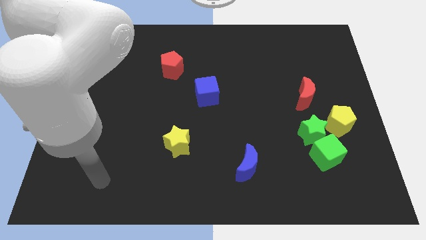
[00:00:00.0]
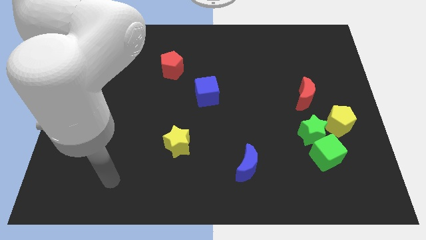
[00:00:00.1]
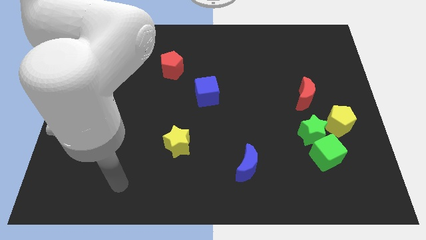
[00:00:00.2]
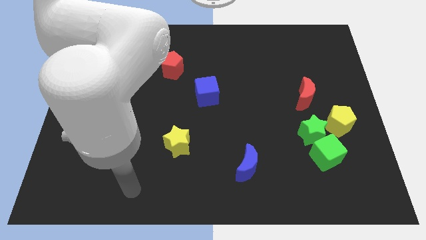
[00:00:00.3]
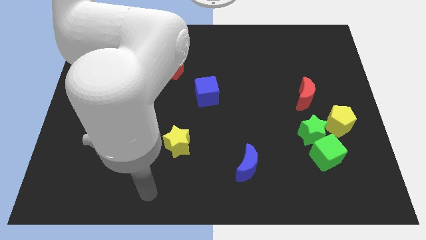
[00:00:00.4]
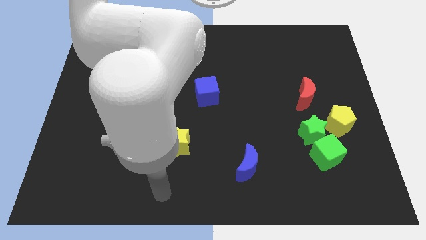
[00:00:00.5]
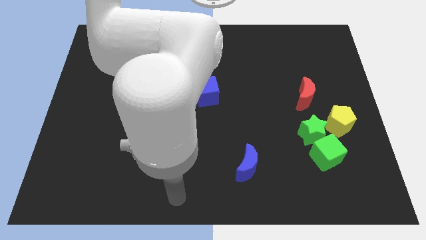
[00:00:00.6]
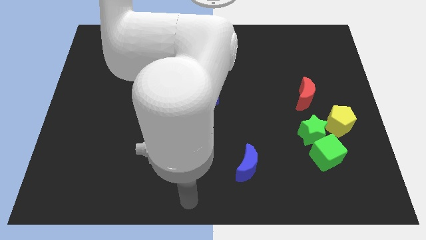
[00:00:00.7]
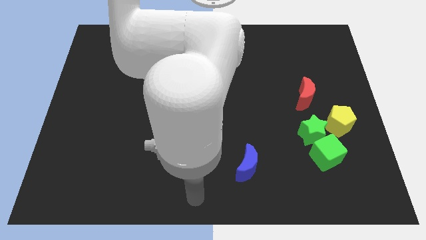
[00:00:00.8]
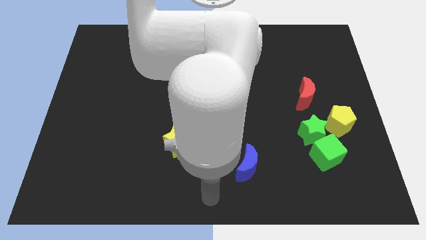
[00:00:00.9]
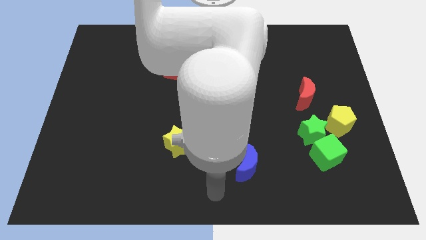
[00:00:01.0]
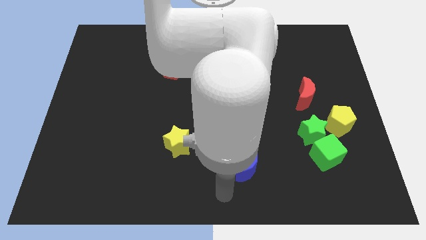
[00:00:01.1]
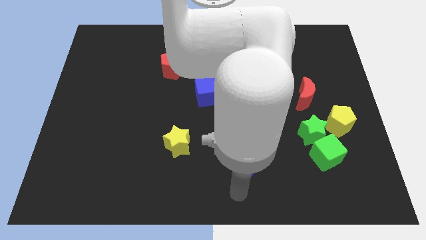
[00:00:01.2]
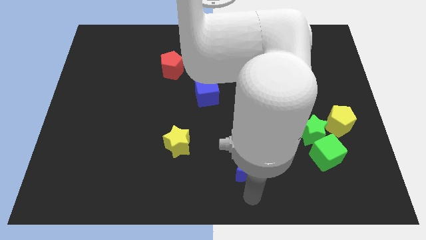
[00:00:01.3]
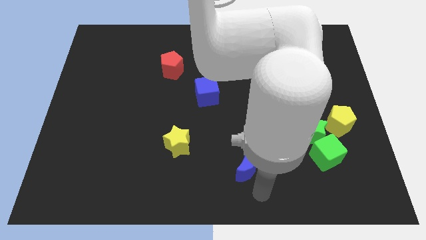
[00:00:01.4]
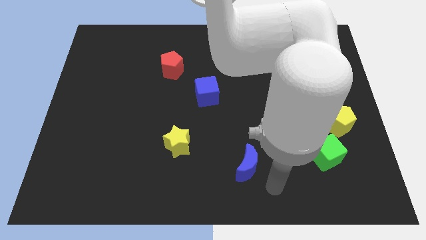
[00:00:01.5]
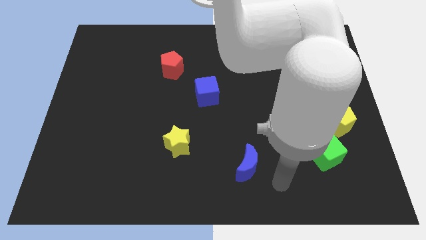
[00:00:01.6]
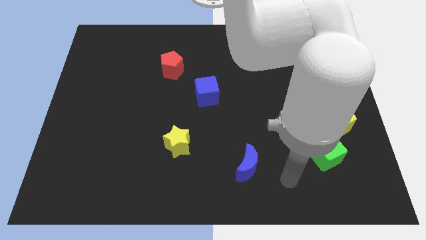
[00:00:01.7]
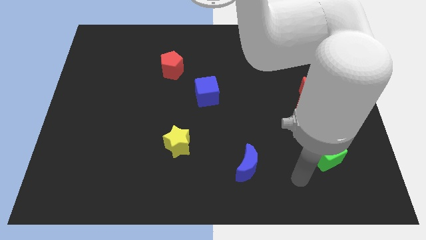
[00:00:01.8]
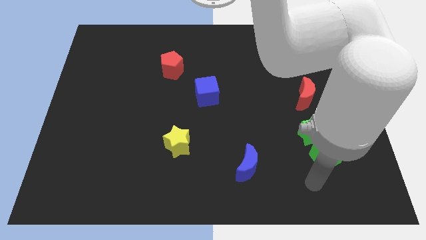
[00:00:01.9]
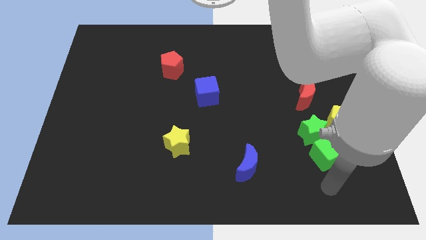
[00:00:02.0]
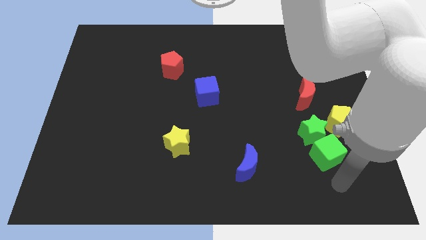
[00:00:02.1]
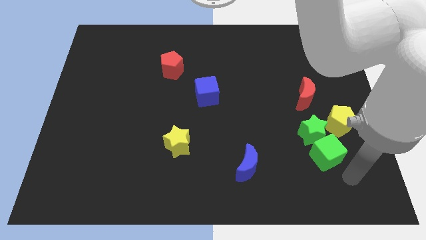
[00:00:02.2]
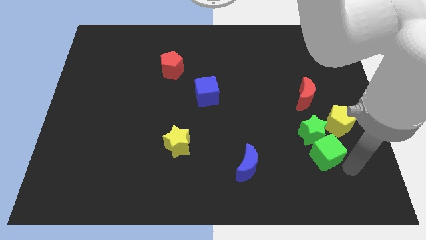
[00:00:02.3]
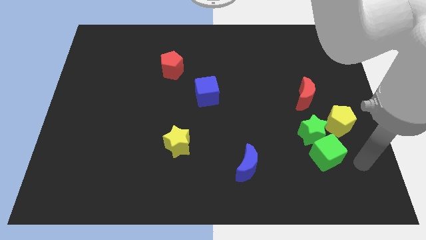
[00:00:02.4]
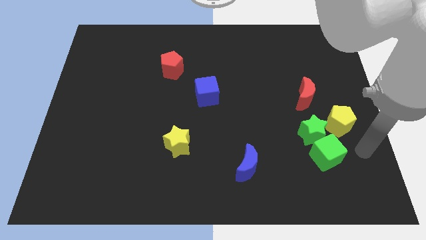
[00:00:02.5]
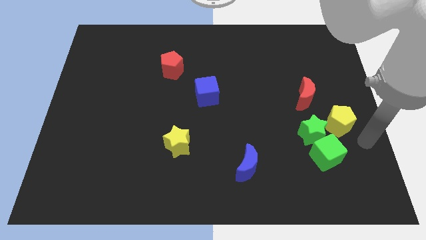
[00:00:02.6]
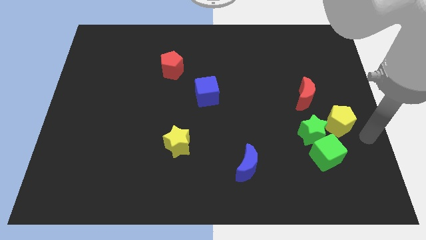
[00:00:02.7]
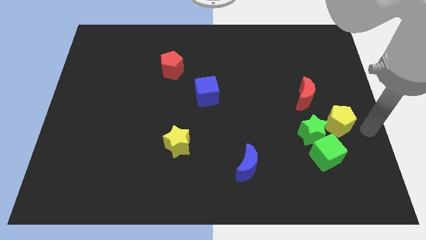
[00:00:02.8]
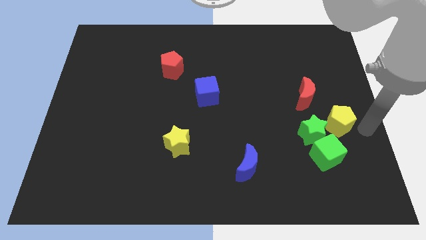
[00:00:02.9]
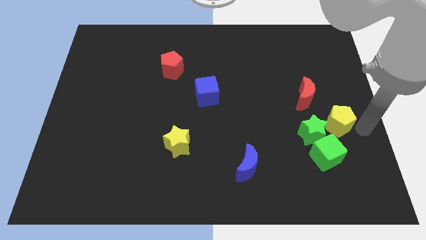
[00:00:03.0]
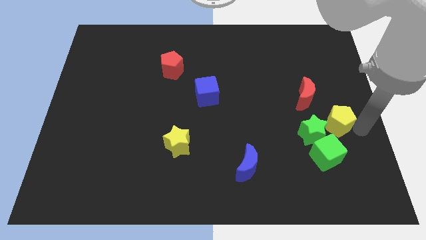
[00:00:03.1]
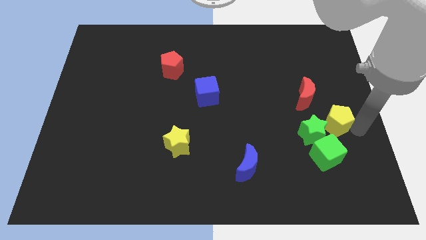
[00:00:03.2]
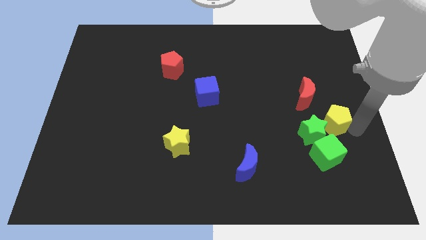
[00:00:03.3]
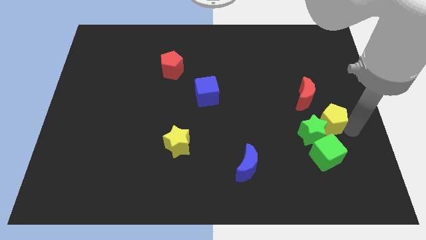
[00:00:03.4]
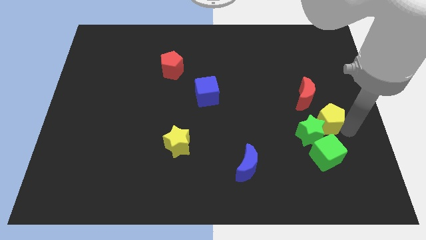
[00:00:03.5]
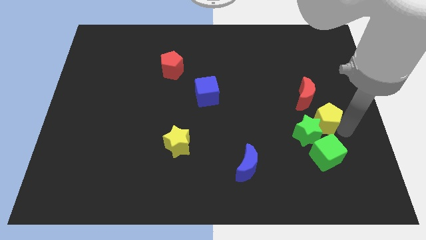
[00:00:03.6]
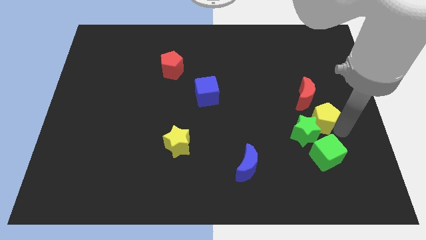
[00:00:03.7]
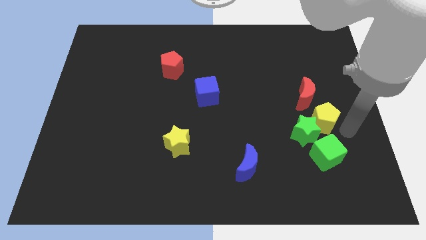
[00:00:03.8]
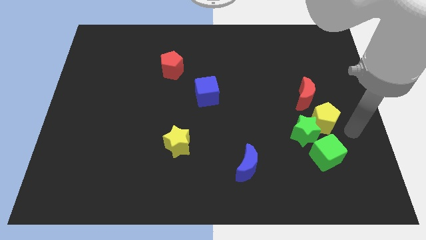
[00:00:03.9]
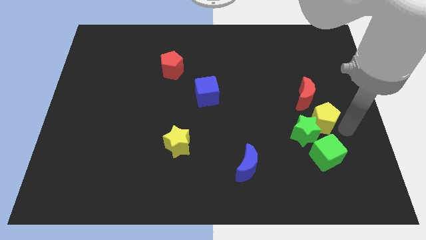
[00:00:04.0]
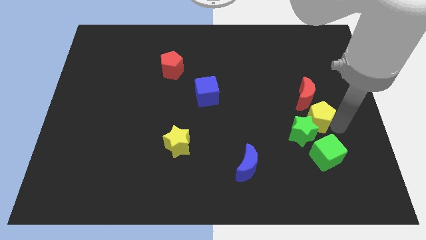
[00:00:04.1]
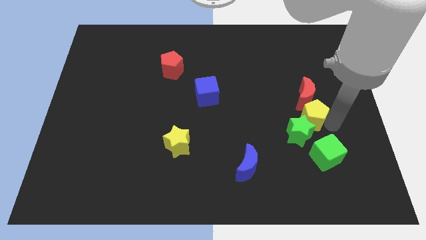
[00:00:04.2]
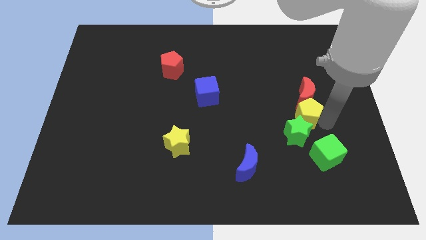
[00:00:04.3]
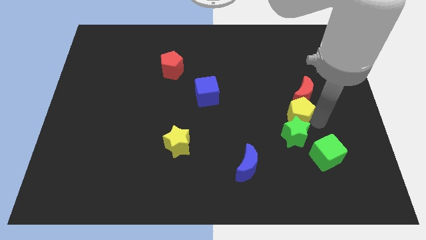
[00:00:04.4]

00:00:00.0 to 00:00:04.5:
slightly push the yellow pentagon diagonally up and to the left

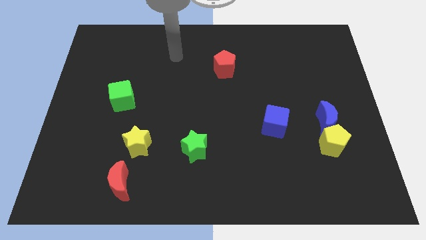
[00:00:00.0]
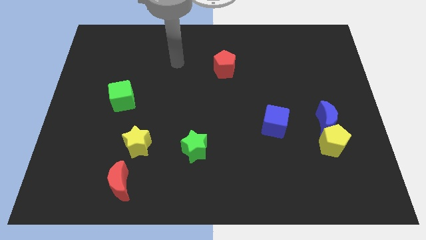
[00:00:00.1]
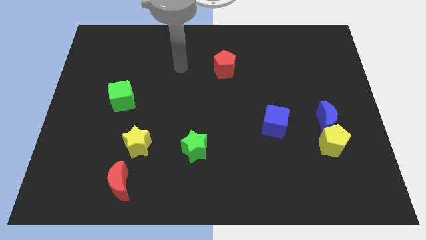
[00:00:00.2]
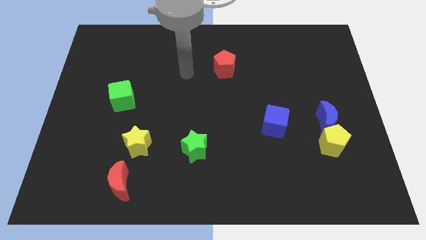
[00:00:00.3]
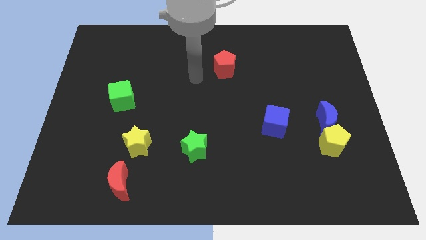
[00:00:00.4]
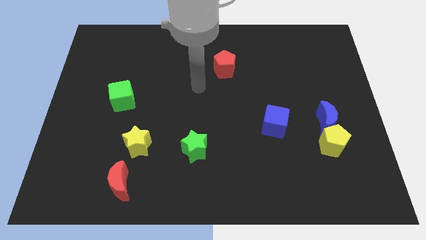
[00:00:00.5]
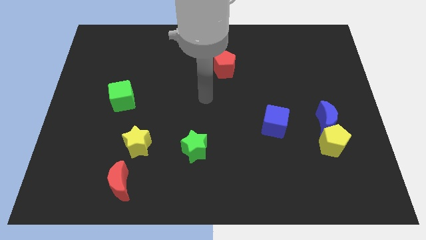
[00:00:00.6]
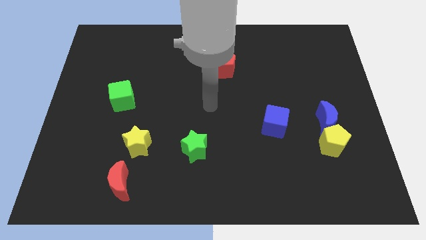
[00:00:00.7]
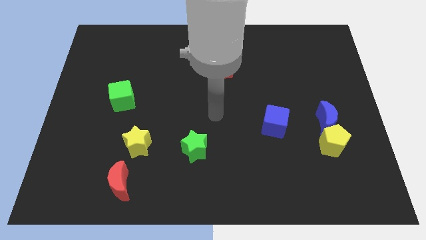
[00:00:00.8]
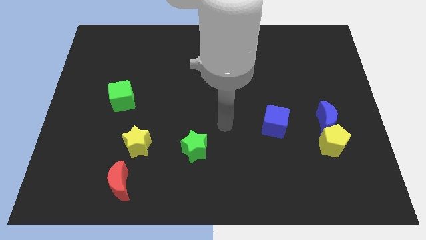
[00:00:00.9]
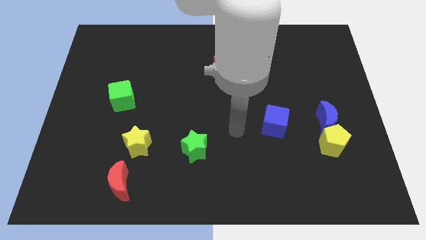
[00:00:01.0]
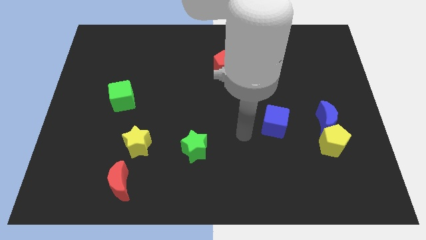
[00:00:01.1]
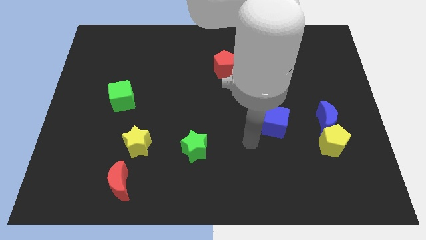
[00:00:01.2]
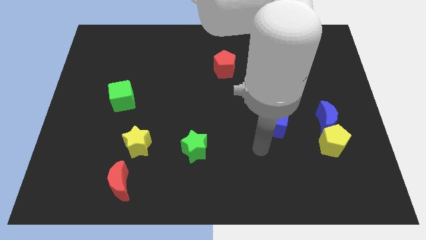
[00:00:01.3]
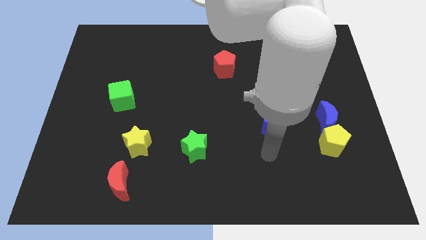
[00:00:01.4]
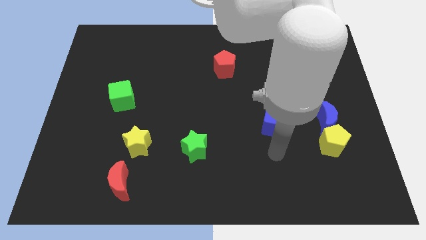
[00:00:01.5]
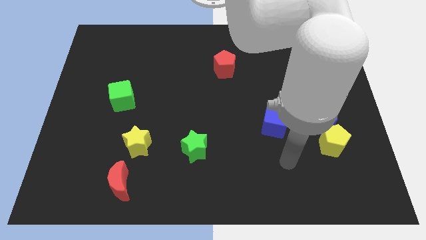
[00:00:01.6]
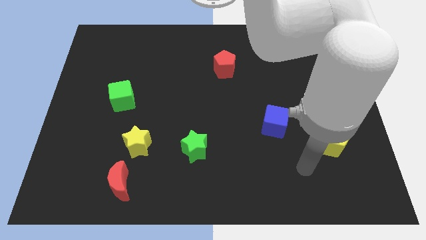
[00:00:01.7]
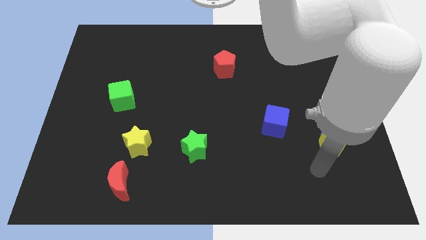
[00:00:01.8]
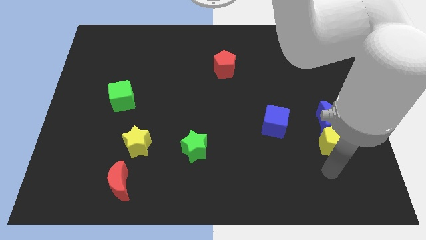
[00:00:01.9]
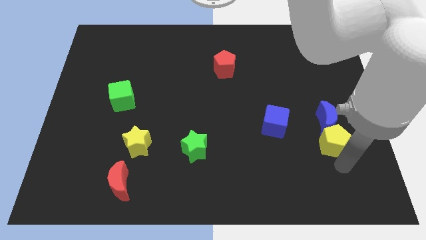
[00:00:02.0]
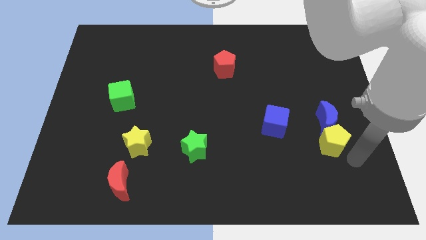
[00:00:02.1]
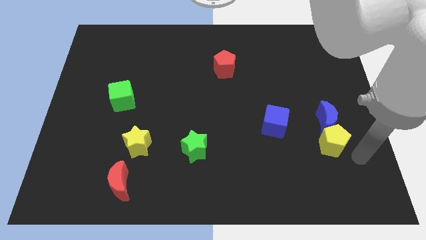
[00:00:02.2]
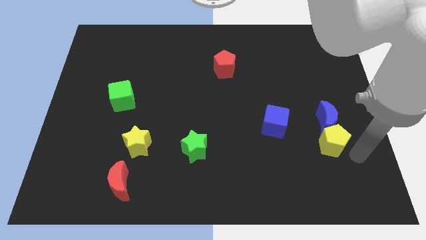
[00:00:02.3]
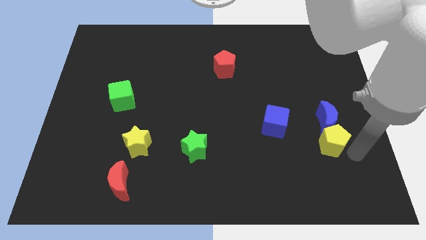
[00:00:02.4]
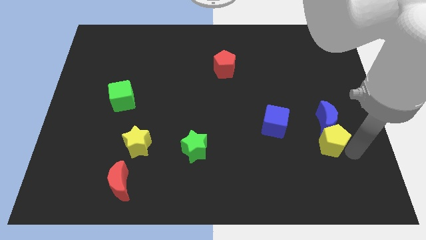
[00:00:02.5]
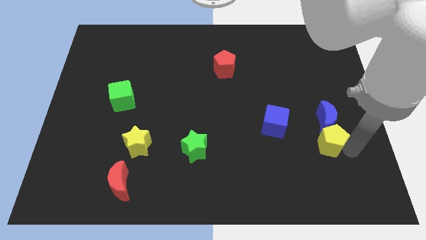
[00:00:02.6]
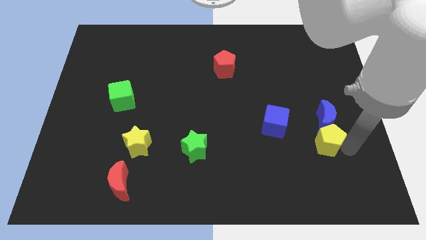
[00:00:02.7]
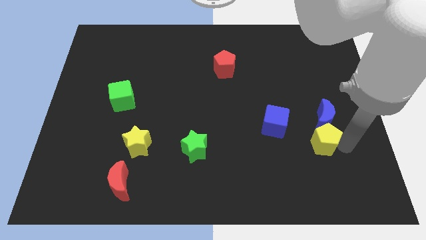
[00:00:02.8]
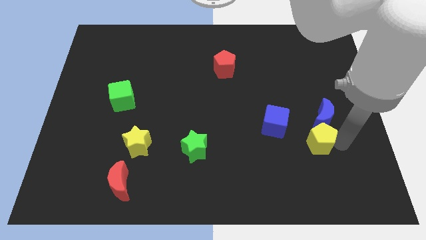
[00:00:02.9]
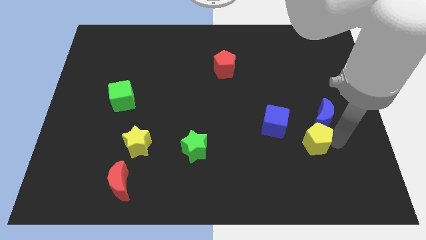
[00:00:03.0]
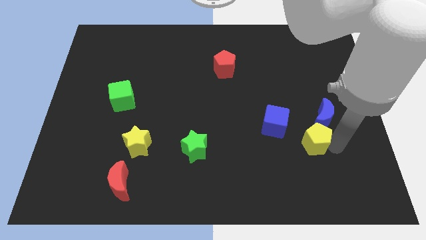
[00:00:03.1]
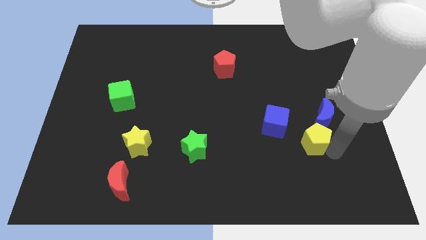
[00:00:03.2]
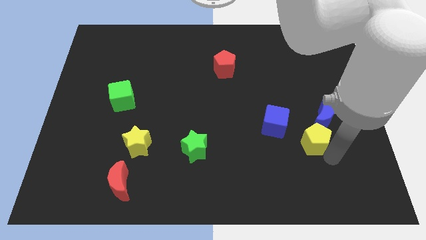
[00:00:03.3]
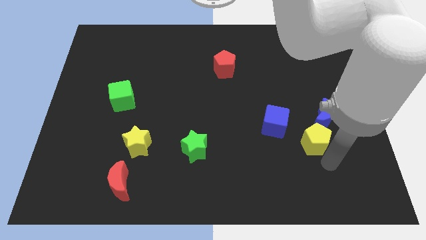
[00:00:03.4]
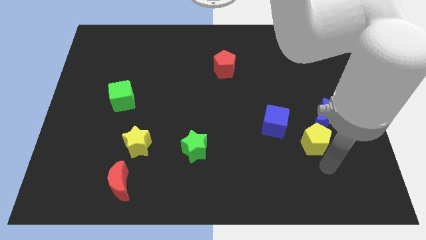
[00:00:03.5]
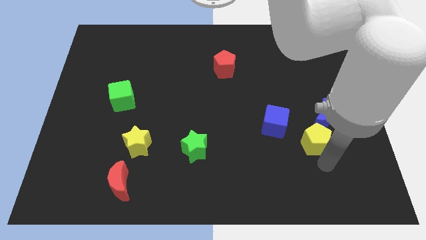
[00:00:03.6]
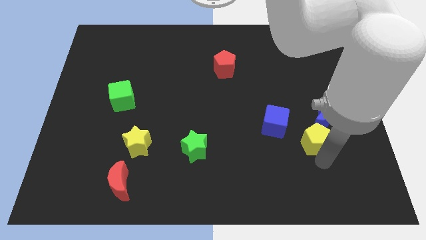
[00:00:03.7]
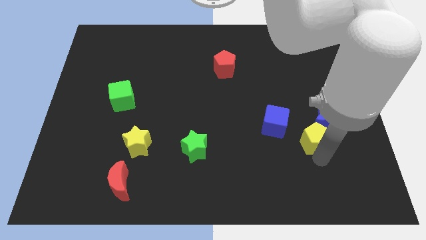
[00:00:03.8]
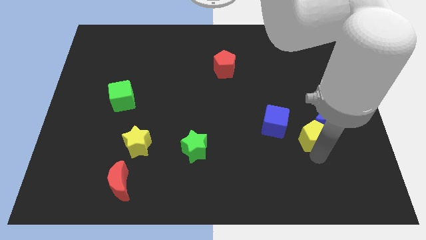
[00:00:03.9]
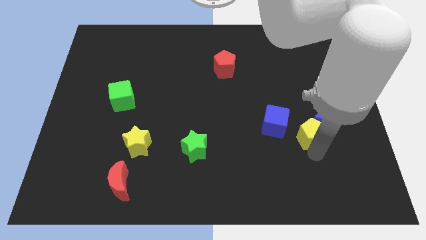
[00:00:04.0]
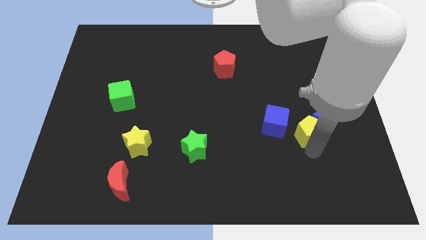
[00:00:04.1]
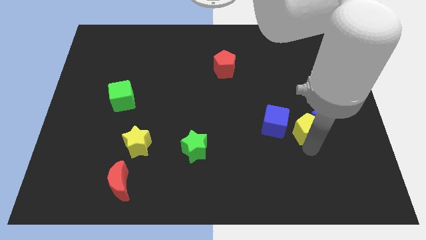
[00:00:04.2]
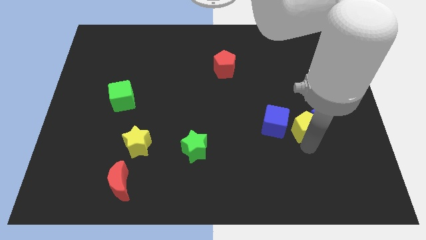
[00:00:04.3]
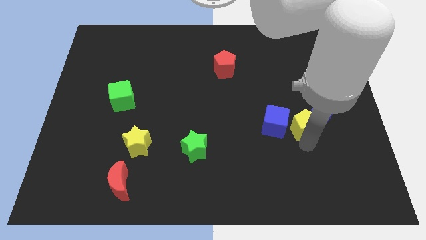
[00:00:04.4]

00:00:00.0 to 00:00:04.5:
push the yellow pentagon upwards and left slightly
